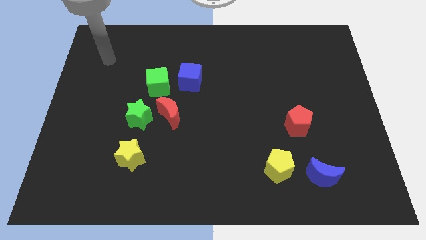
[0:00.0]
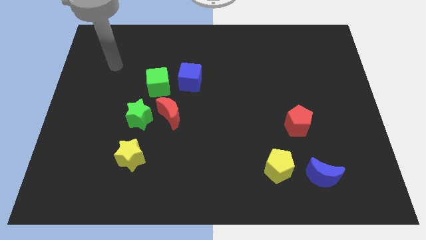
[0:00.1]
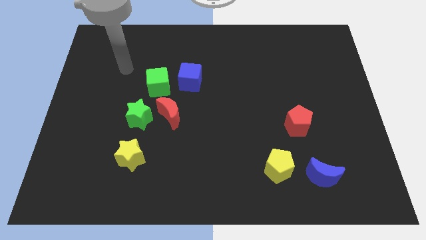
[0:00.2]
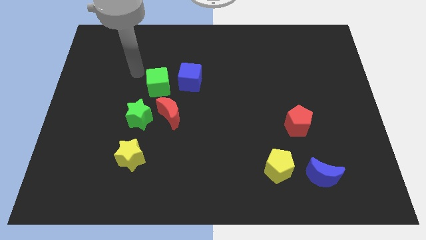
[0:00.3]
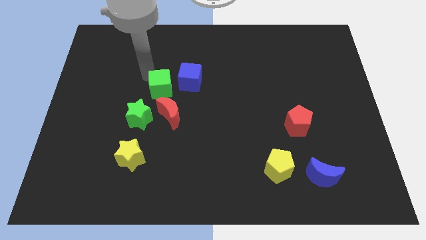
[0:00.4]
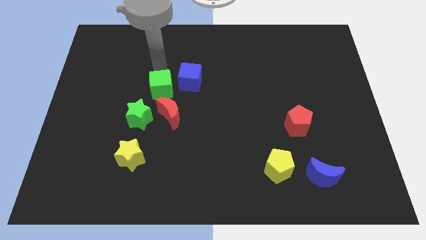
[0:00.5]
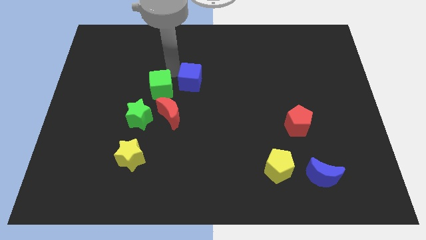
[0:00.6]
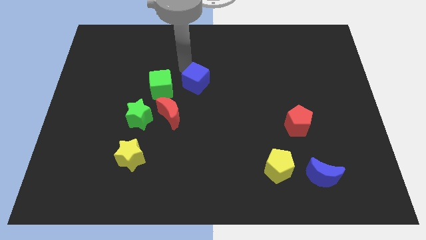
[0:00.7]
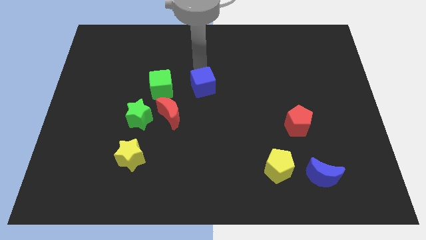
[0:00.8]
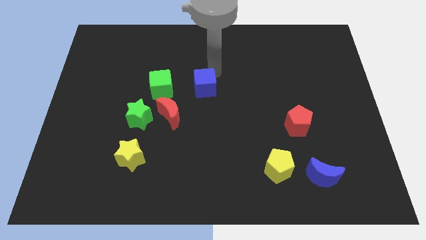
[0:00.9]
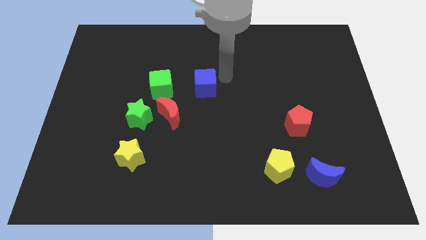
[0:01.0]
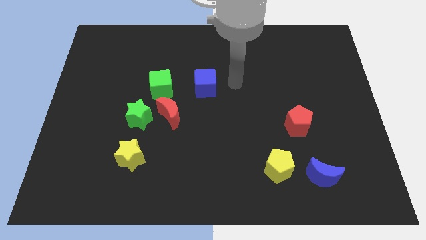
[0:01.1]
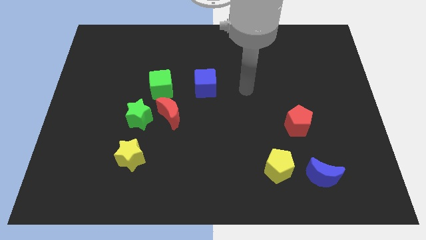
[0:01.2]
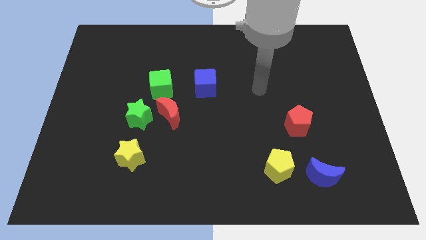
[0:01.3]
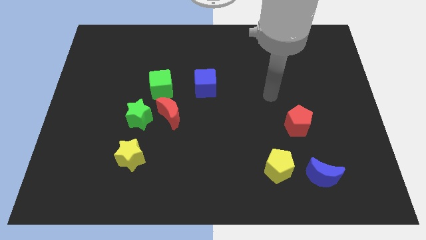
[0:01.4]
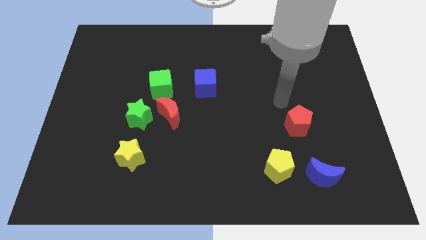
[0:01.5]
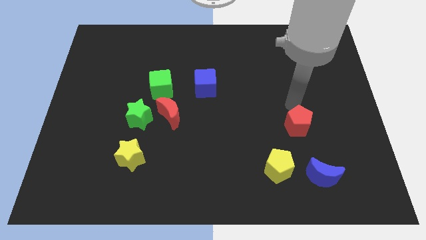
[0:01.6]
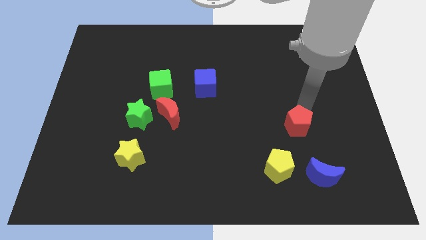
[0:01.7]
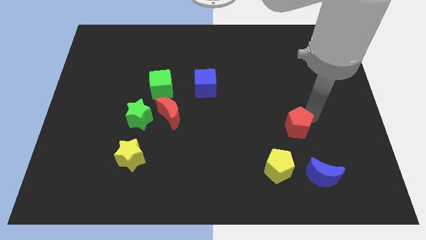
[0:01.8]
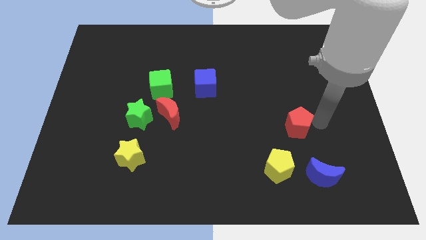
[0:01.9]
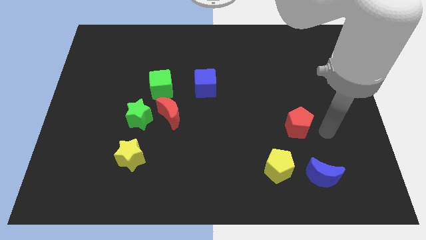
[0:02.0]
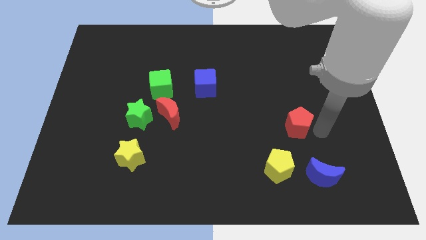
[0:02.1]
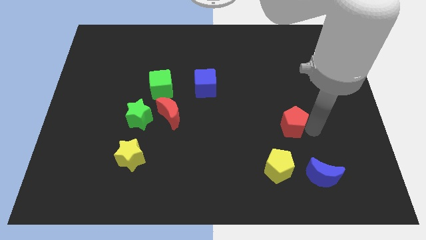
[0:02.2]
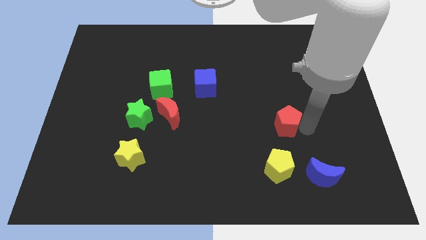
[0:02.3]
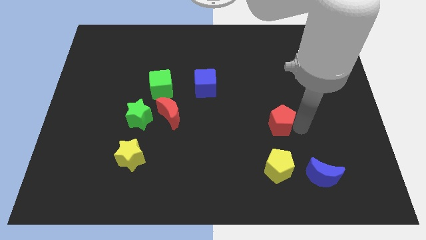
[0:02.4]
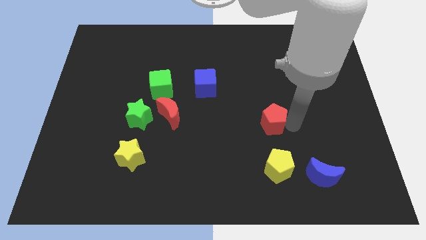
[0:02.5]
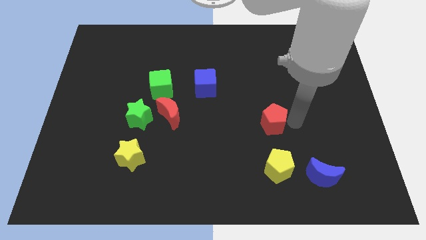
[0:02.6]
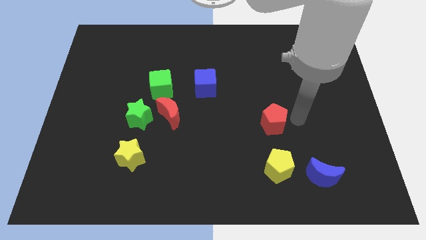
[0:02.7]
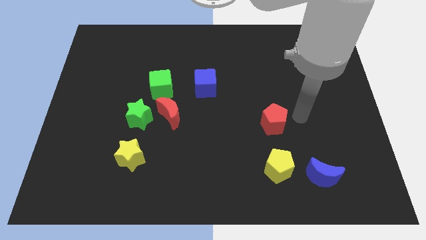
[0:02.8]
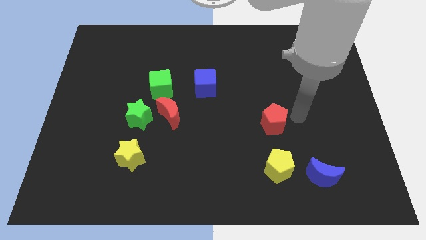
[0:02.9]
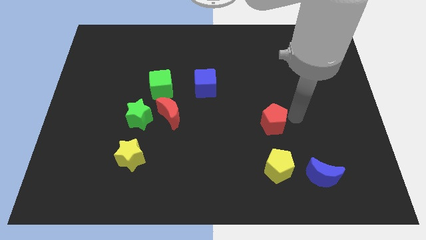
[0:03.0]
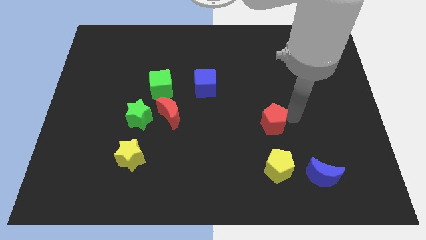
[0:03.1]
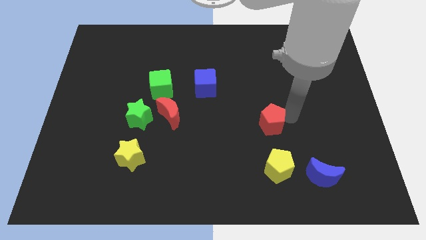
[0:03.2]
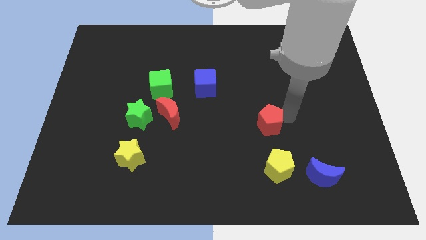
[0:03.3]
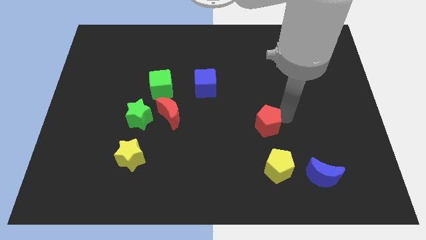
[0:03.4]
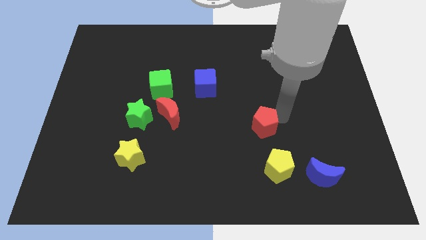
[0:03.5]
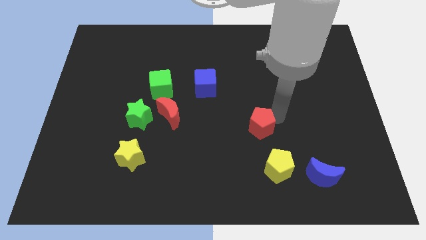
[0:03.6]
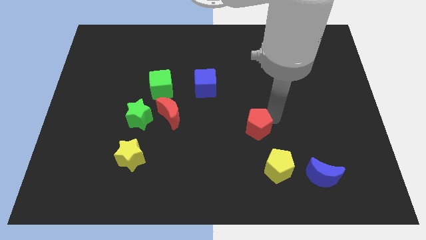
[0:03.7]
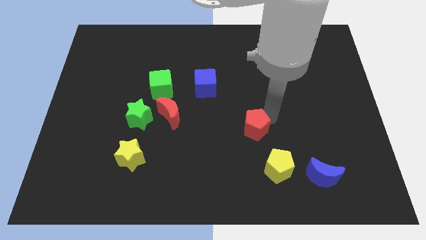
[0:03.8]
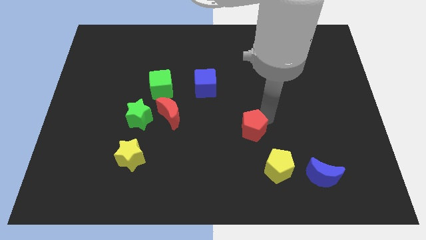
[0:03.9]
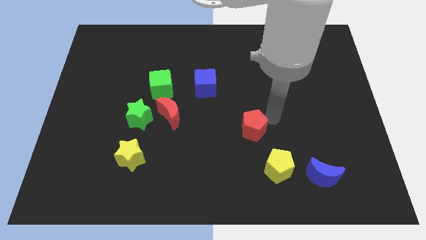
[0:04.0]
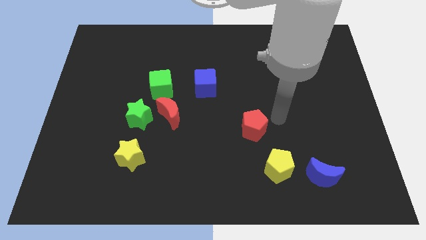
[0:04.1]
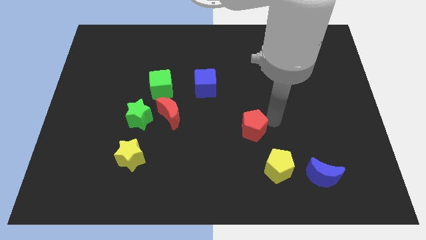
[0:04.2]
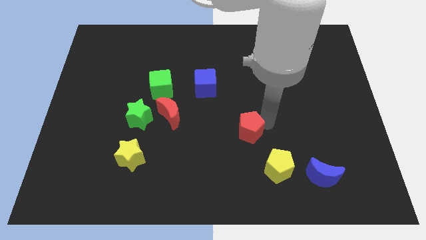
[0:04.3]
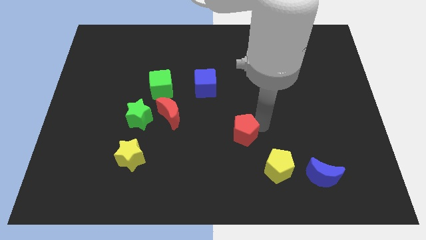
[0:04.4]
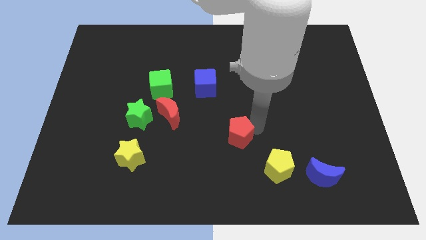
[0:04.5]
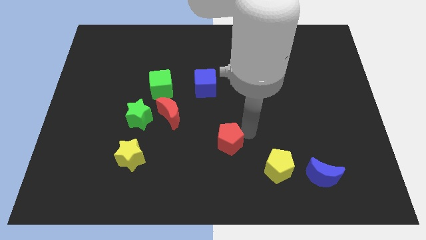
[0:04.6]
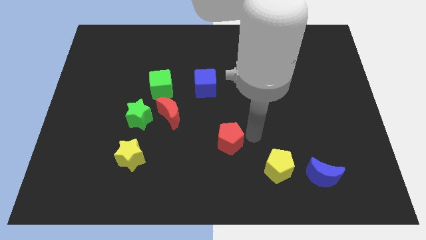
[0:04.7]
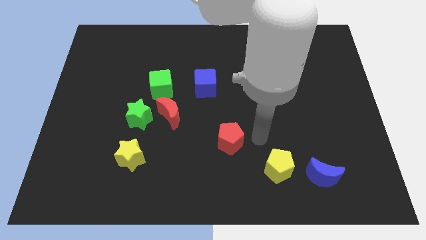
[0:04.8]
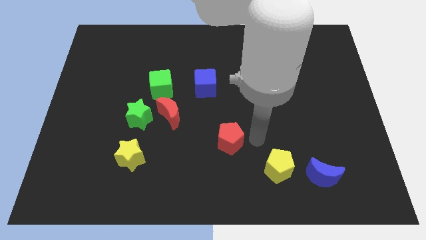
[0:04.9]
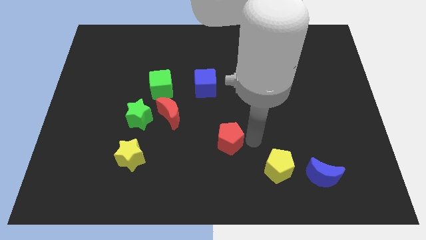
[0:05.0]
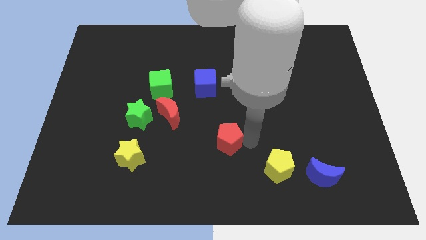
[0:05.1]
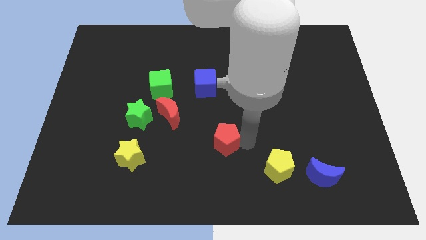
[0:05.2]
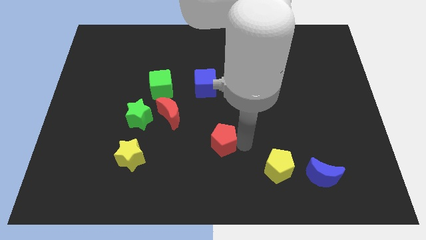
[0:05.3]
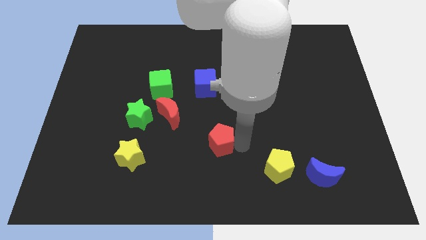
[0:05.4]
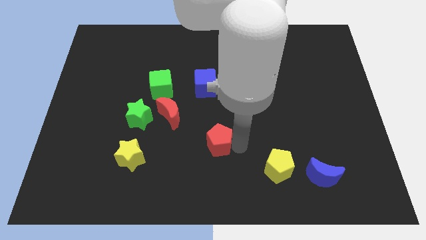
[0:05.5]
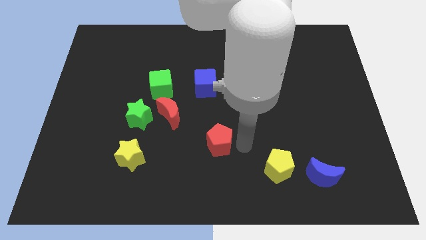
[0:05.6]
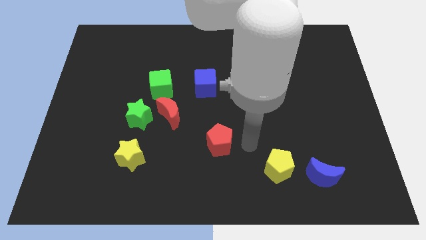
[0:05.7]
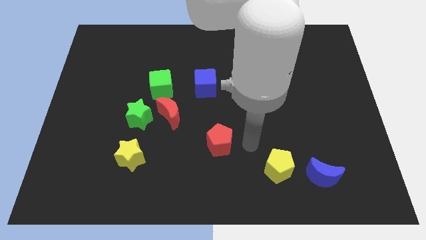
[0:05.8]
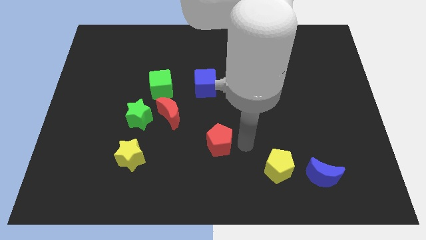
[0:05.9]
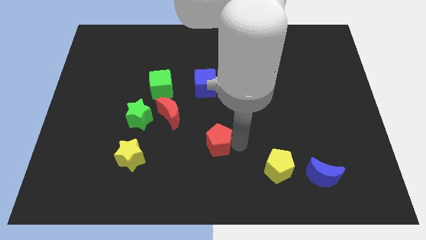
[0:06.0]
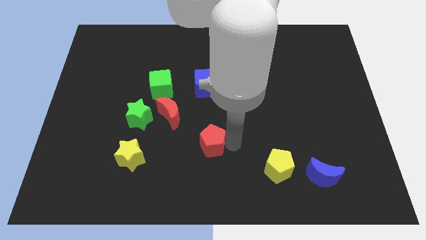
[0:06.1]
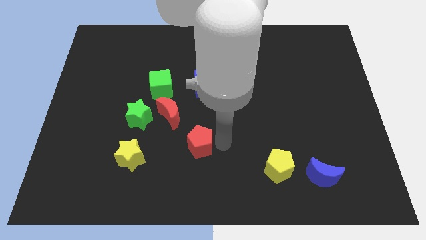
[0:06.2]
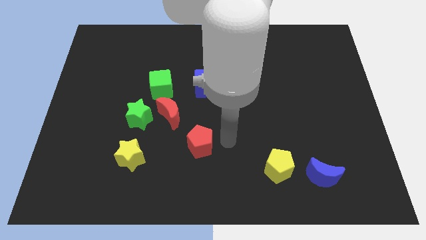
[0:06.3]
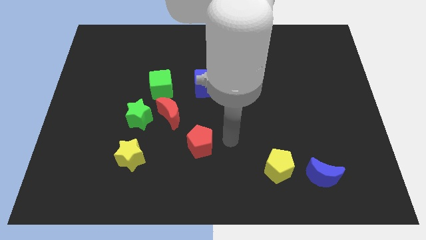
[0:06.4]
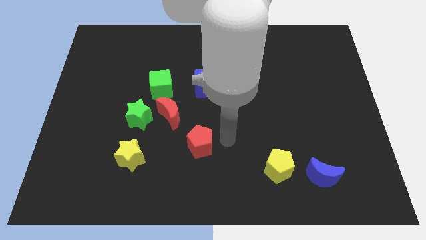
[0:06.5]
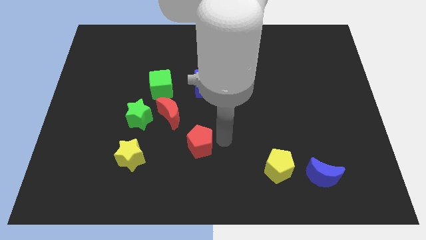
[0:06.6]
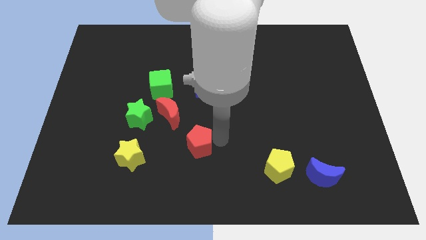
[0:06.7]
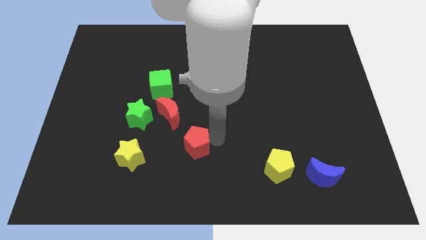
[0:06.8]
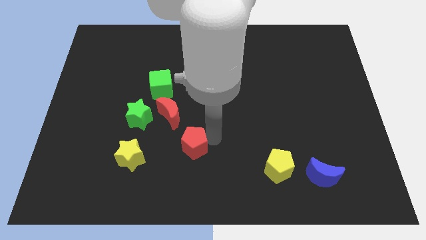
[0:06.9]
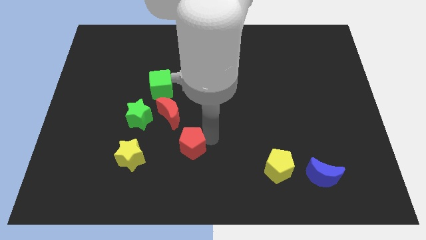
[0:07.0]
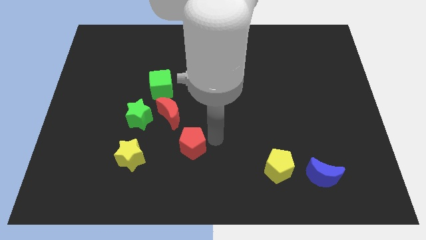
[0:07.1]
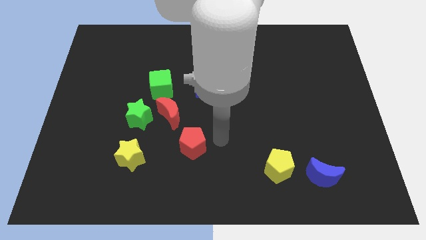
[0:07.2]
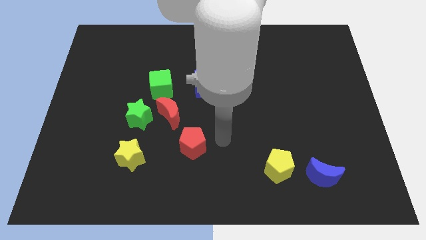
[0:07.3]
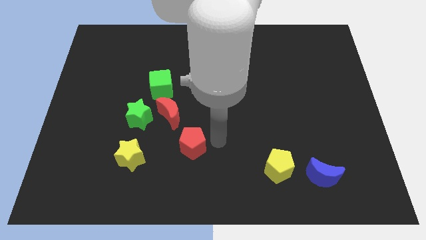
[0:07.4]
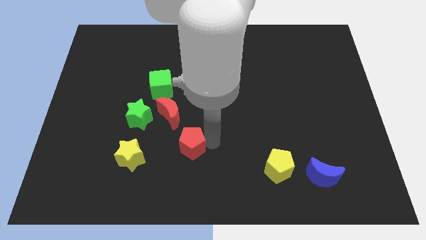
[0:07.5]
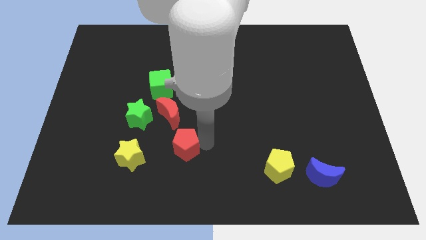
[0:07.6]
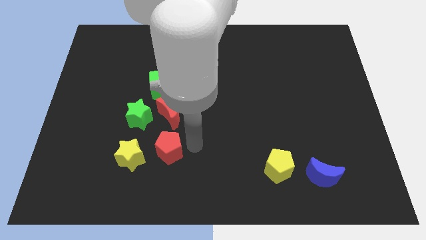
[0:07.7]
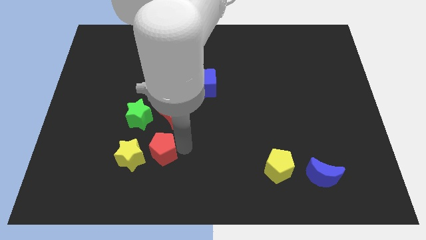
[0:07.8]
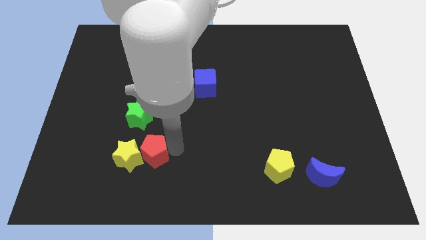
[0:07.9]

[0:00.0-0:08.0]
slide the red pentagon next to the yellow star
